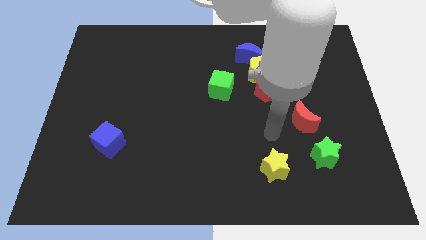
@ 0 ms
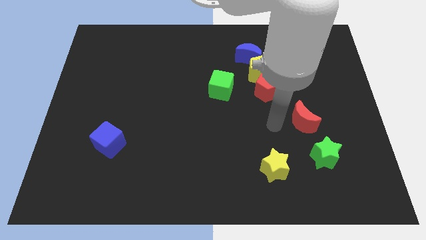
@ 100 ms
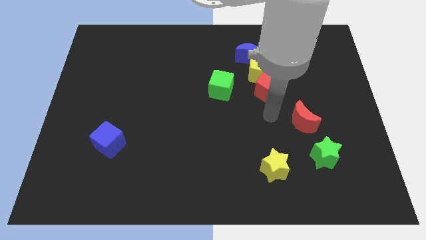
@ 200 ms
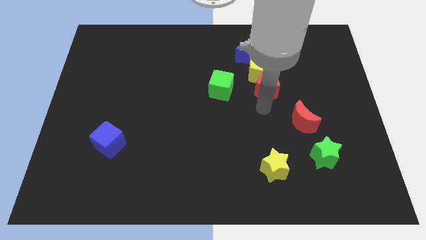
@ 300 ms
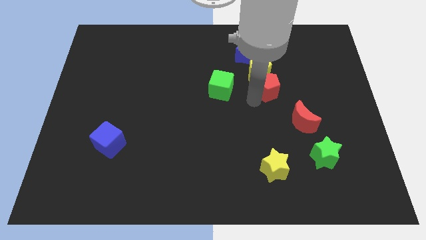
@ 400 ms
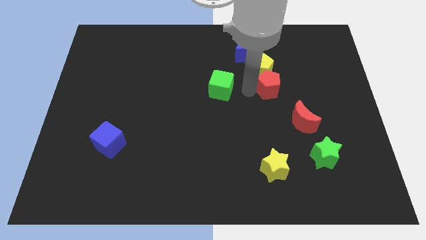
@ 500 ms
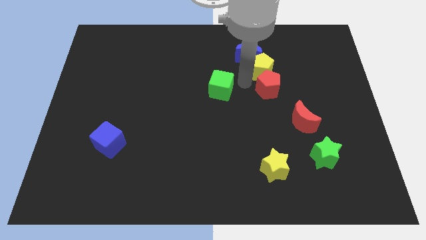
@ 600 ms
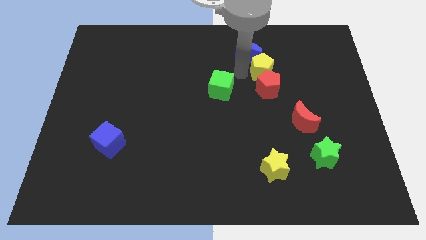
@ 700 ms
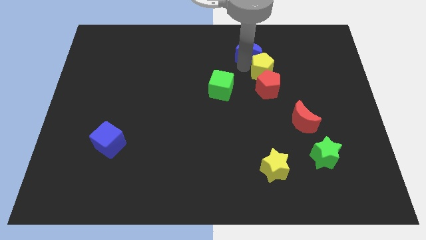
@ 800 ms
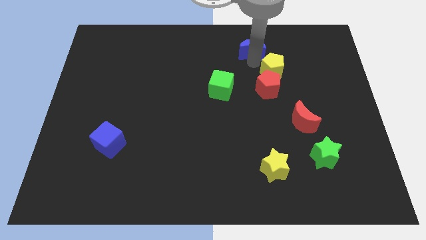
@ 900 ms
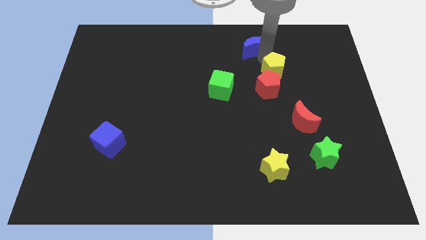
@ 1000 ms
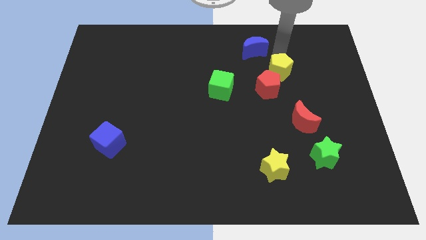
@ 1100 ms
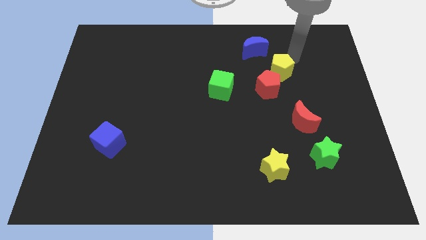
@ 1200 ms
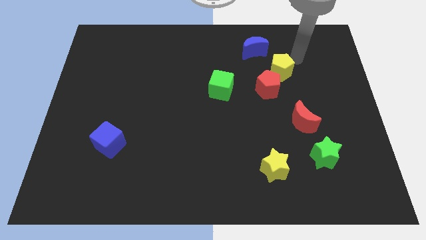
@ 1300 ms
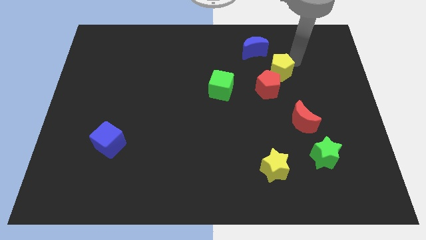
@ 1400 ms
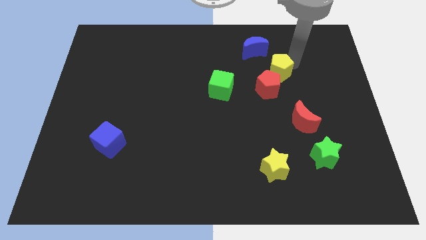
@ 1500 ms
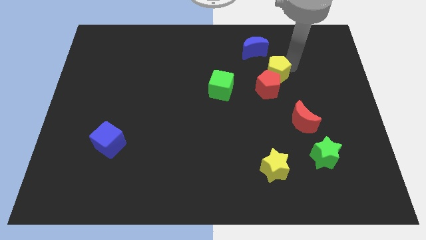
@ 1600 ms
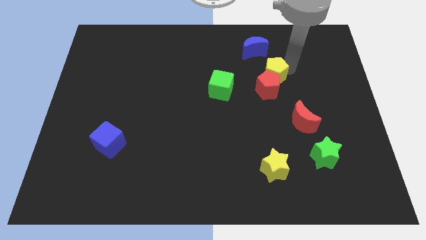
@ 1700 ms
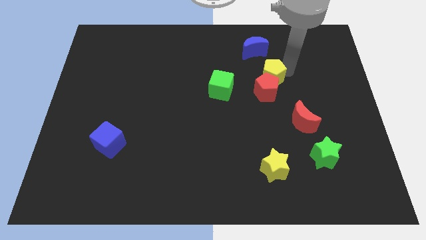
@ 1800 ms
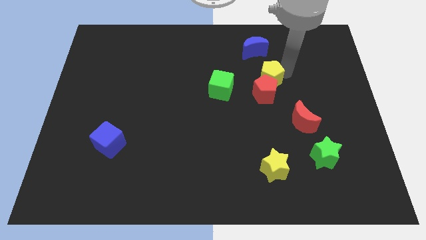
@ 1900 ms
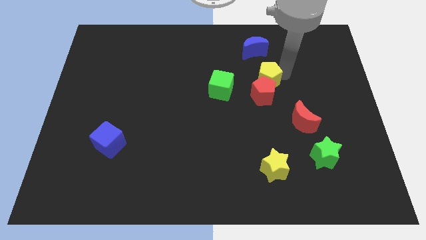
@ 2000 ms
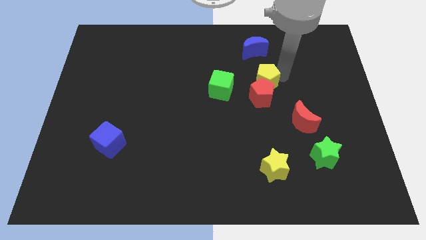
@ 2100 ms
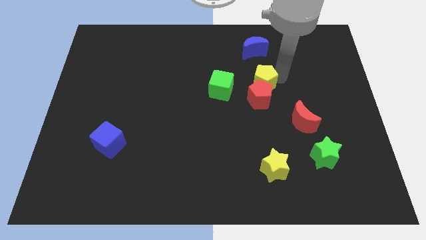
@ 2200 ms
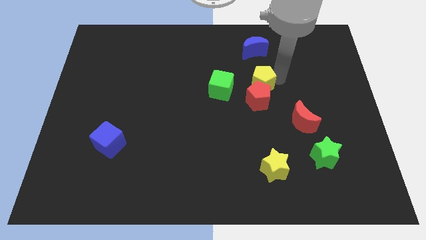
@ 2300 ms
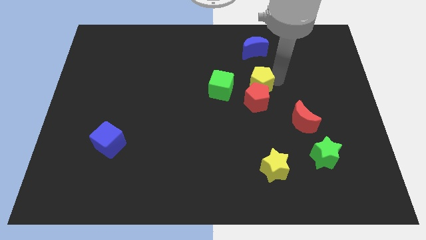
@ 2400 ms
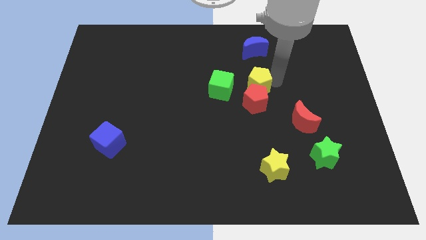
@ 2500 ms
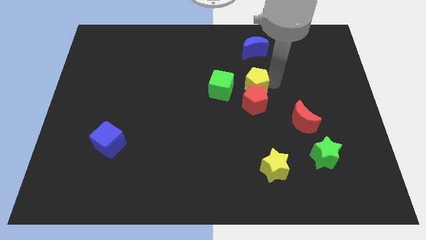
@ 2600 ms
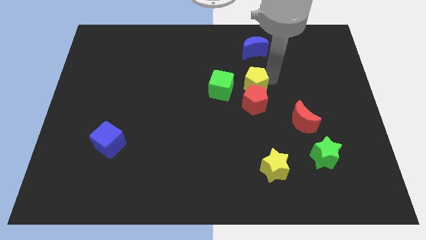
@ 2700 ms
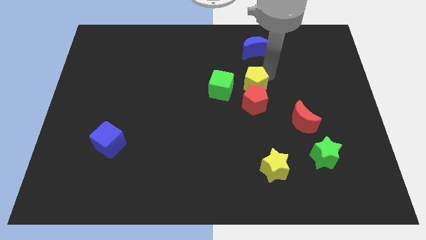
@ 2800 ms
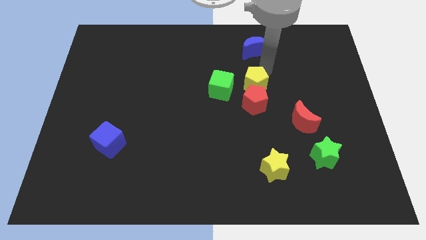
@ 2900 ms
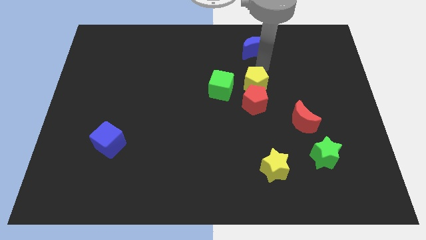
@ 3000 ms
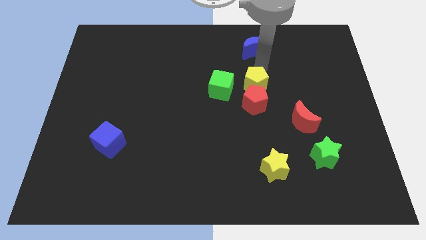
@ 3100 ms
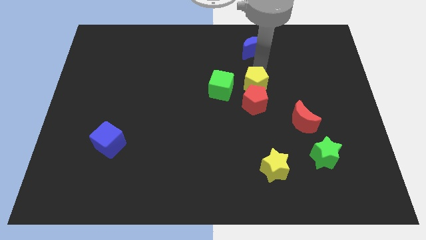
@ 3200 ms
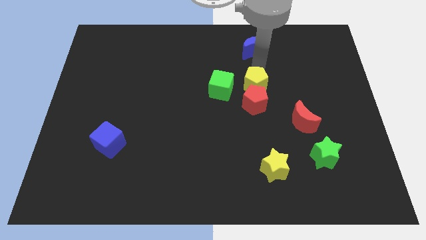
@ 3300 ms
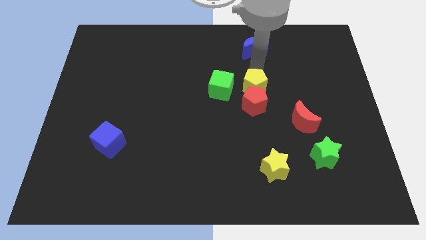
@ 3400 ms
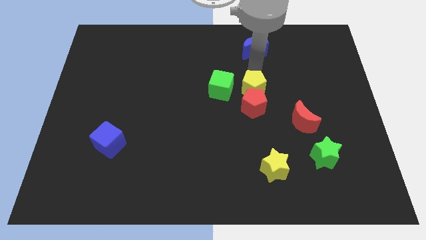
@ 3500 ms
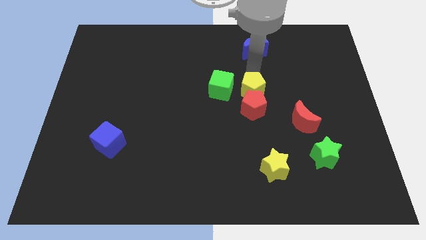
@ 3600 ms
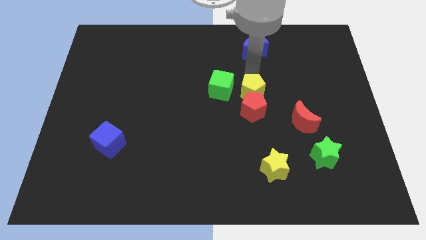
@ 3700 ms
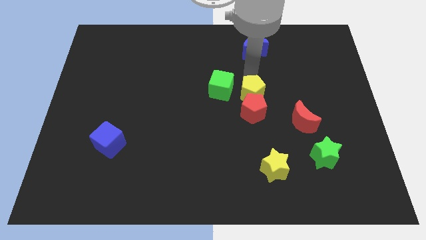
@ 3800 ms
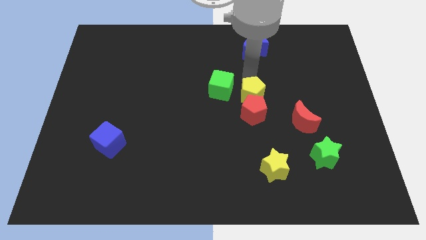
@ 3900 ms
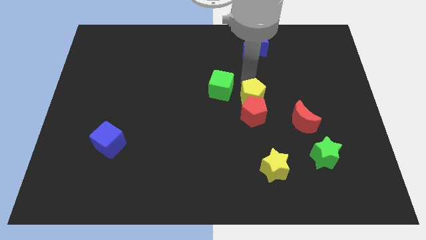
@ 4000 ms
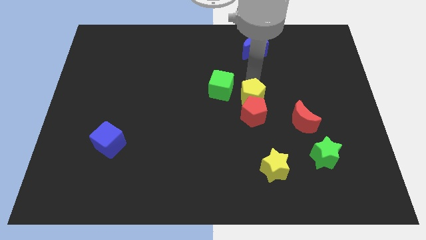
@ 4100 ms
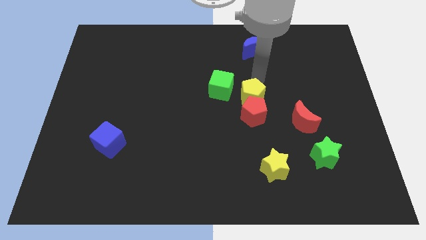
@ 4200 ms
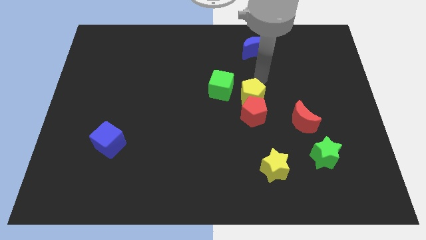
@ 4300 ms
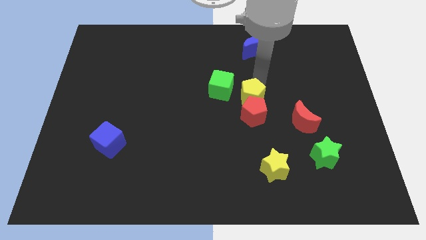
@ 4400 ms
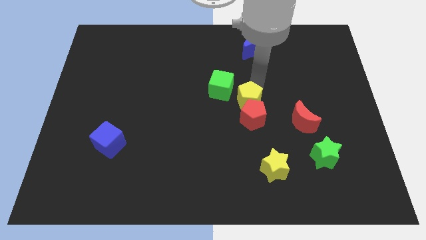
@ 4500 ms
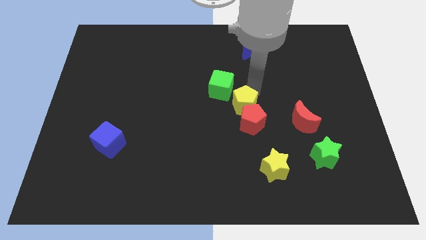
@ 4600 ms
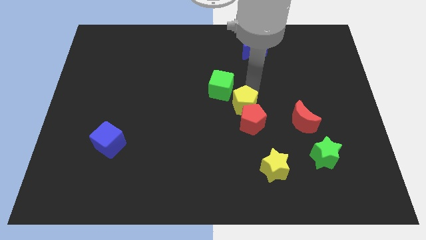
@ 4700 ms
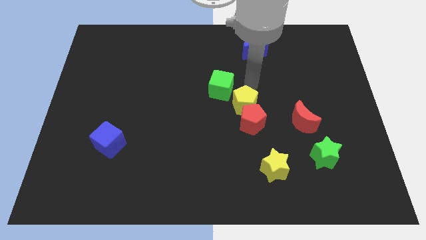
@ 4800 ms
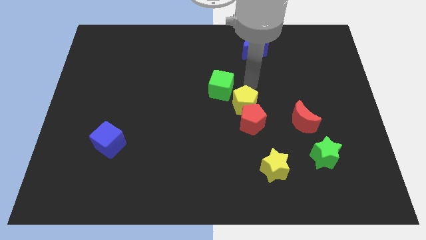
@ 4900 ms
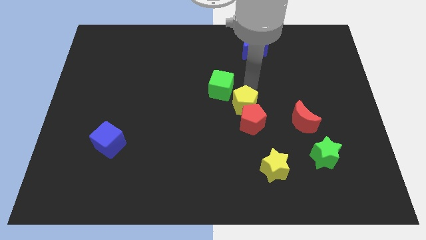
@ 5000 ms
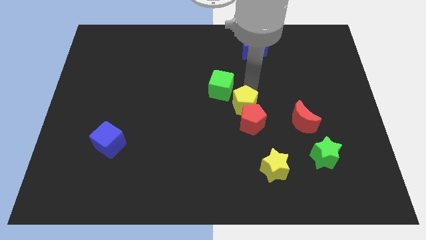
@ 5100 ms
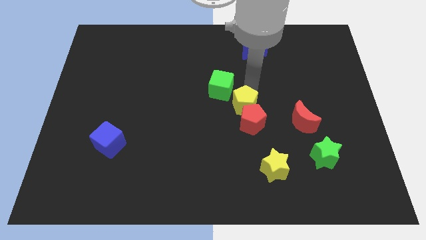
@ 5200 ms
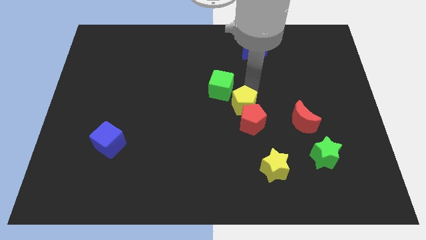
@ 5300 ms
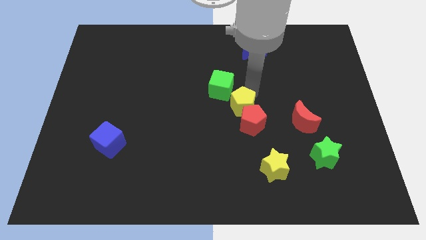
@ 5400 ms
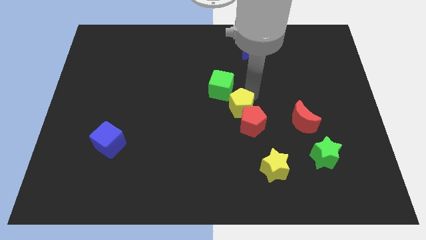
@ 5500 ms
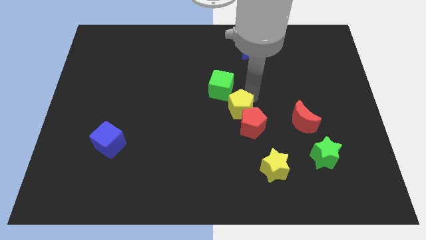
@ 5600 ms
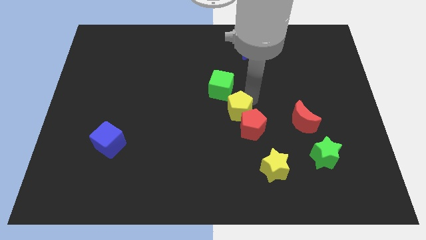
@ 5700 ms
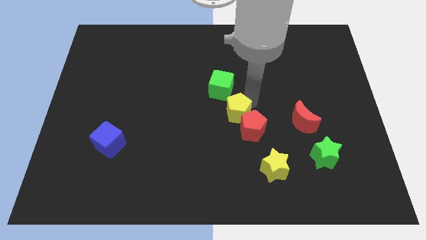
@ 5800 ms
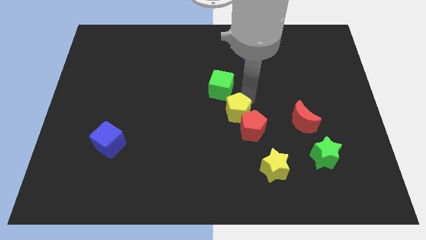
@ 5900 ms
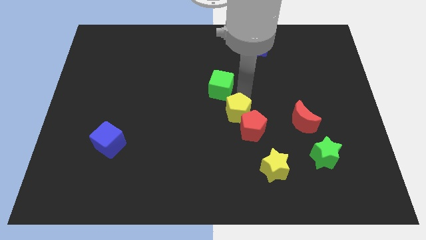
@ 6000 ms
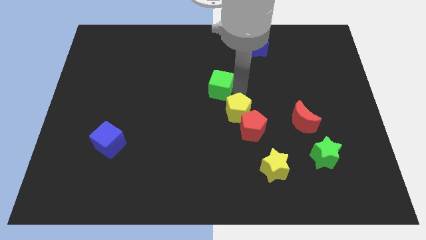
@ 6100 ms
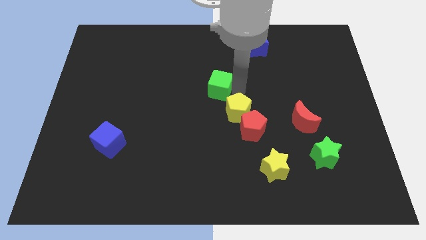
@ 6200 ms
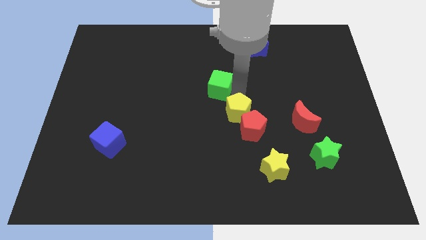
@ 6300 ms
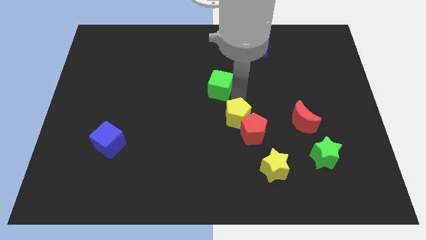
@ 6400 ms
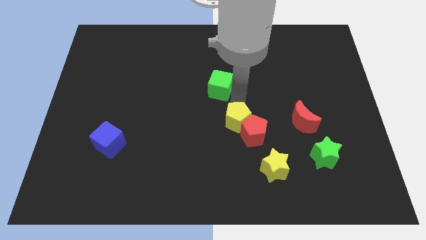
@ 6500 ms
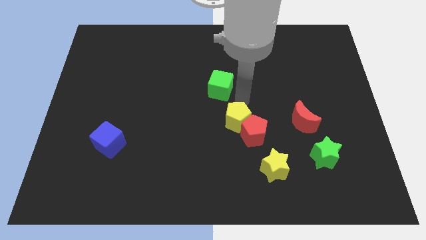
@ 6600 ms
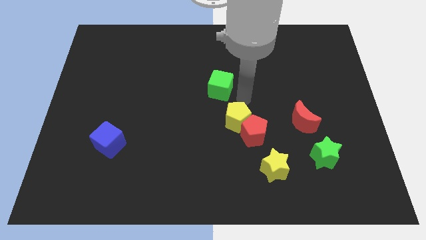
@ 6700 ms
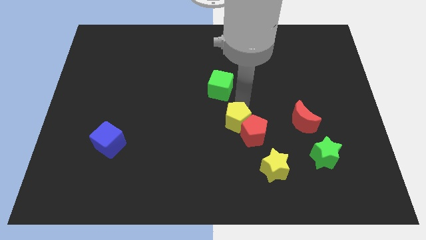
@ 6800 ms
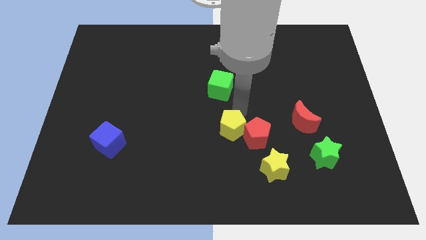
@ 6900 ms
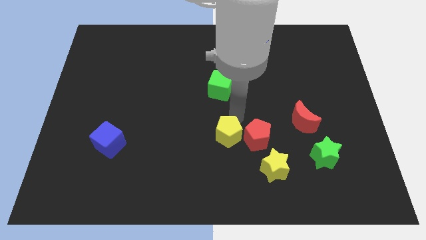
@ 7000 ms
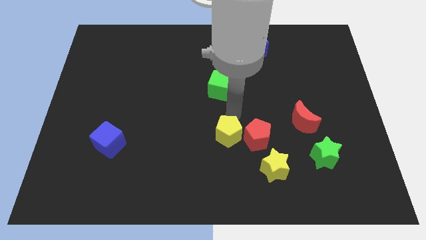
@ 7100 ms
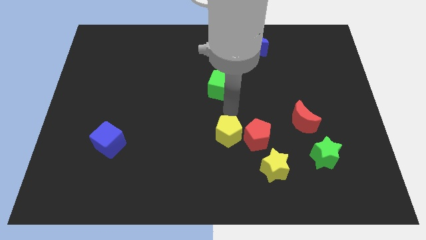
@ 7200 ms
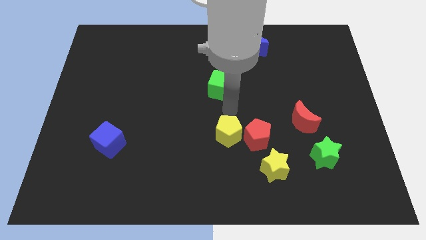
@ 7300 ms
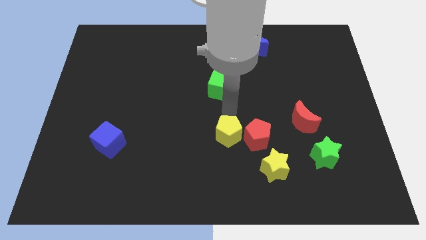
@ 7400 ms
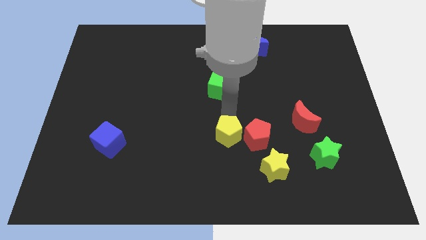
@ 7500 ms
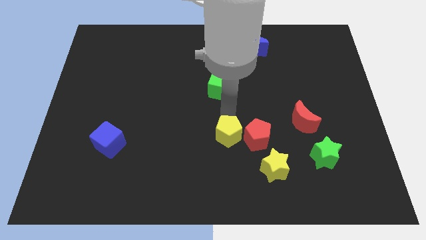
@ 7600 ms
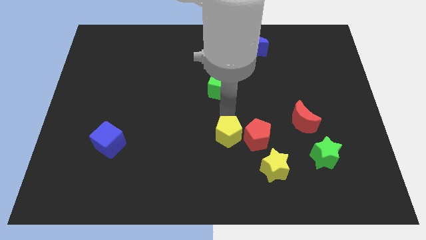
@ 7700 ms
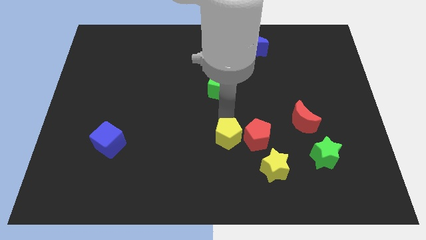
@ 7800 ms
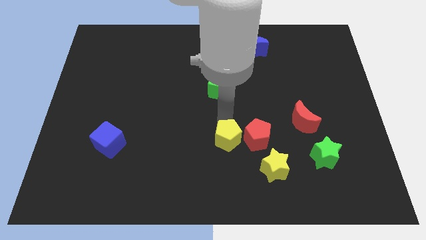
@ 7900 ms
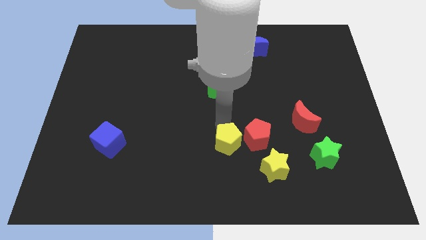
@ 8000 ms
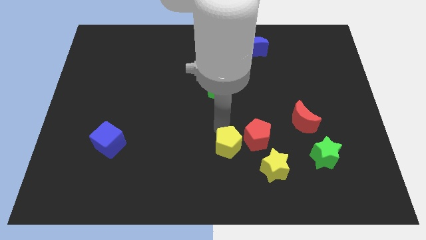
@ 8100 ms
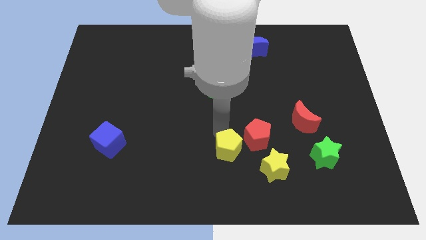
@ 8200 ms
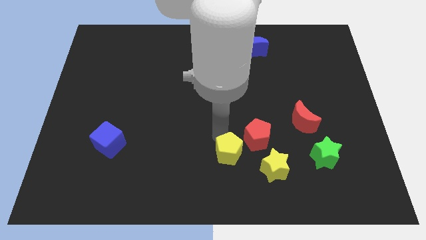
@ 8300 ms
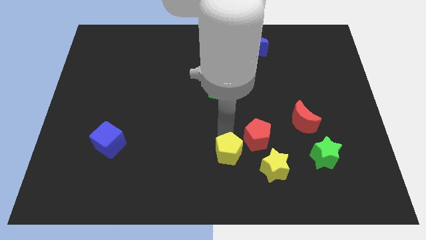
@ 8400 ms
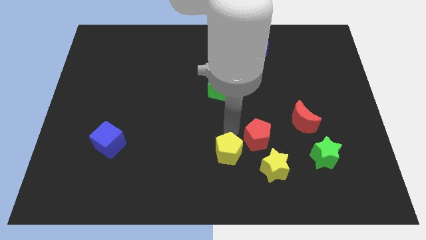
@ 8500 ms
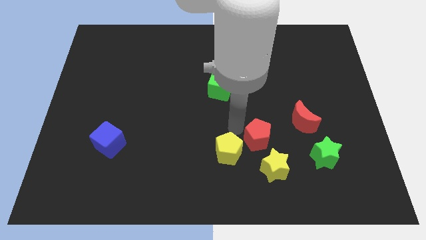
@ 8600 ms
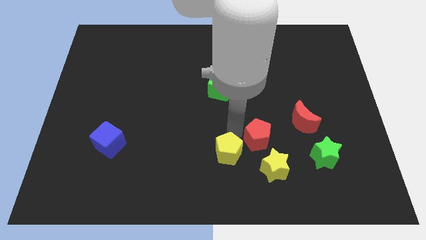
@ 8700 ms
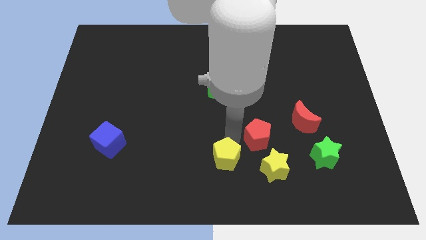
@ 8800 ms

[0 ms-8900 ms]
move the yellow pentagon to the bottom
